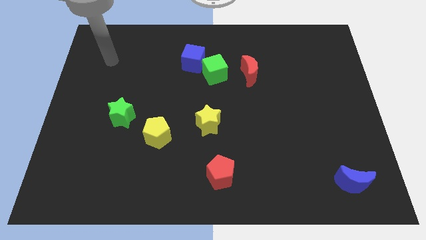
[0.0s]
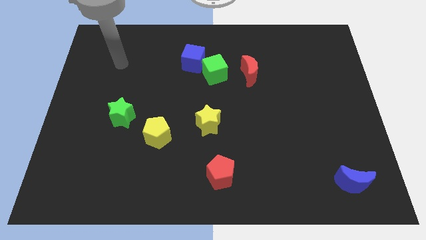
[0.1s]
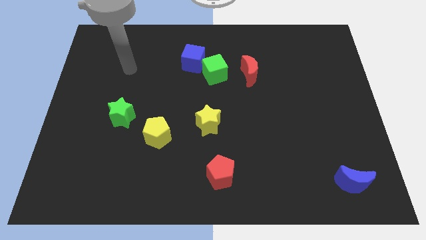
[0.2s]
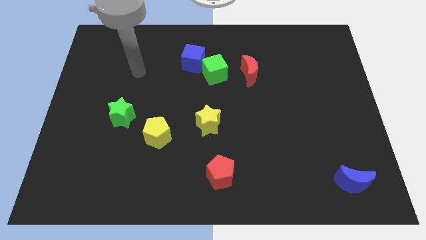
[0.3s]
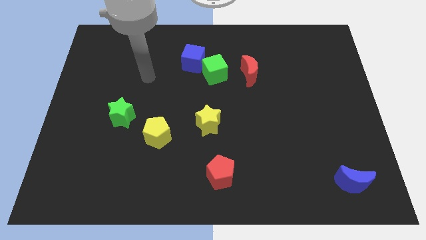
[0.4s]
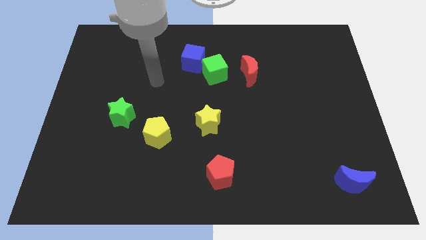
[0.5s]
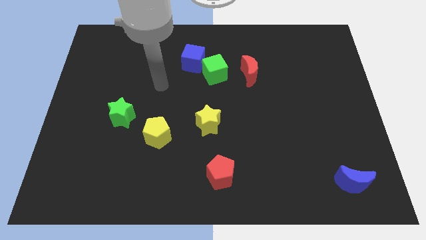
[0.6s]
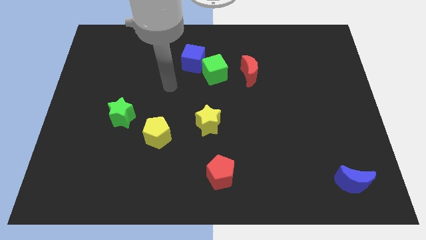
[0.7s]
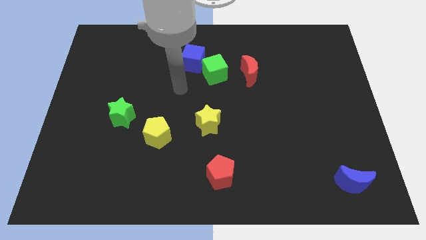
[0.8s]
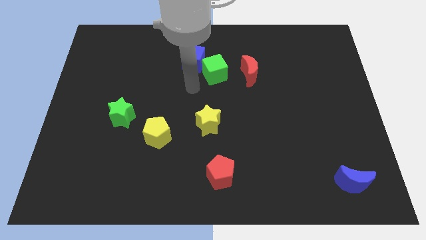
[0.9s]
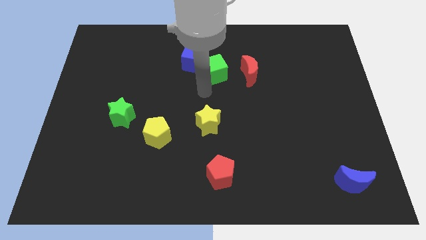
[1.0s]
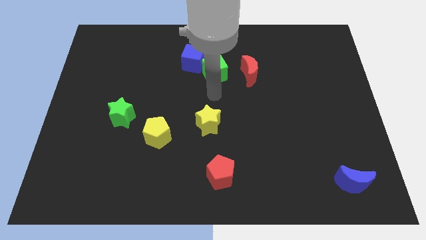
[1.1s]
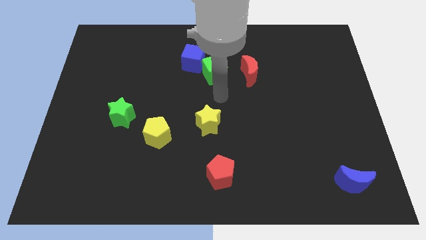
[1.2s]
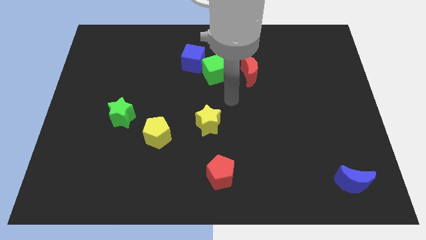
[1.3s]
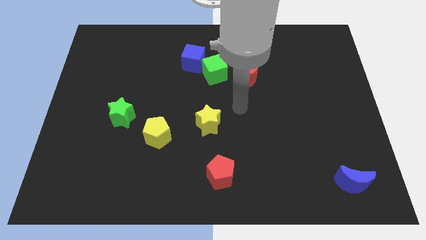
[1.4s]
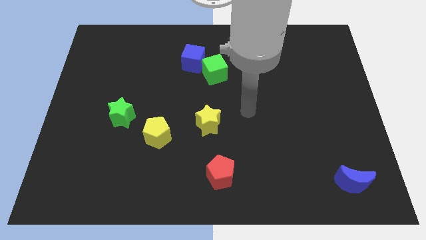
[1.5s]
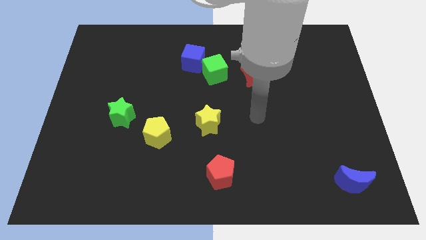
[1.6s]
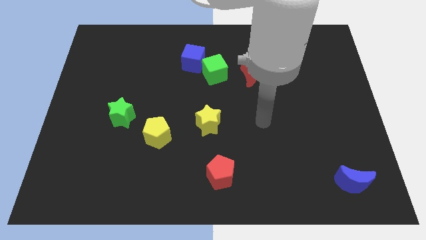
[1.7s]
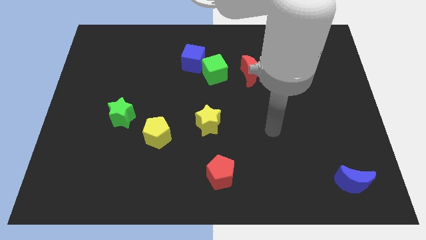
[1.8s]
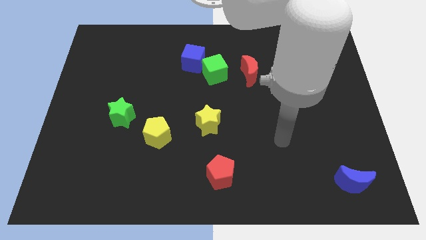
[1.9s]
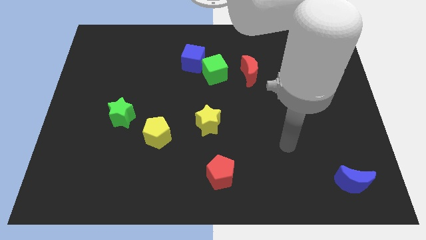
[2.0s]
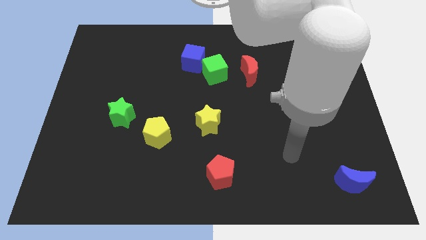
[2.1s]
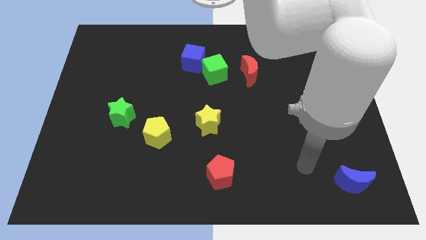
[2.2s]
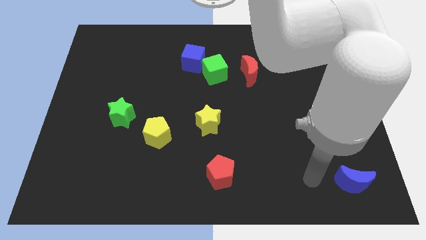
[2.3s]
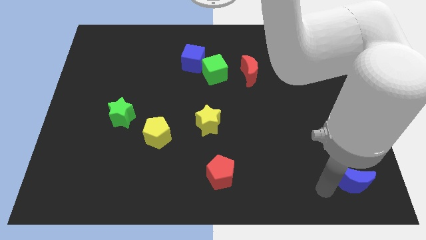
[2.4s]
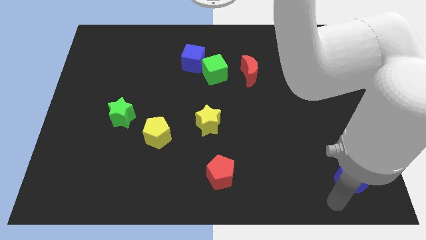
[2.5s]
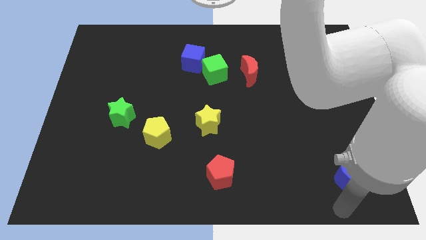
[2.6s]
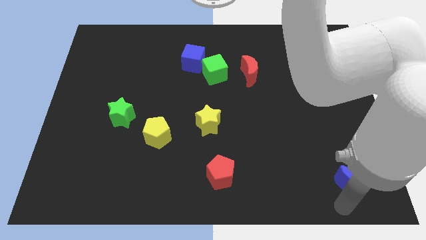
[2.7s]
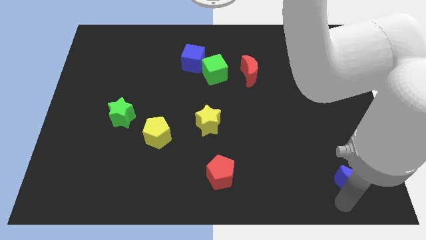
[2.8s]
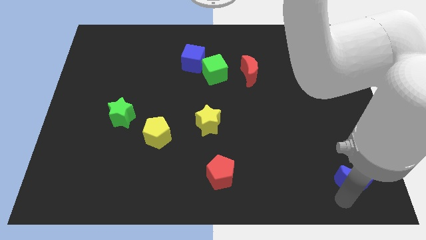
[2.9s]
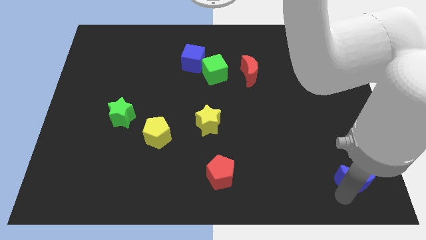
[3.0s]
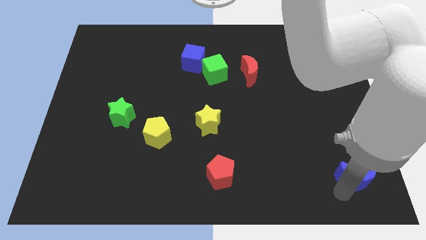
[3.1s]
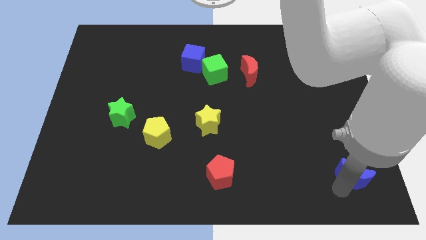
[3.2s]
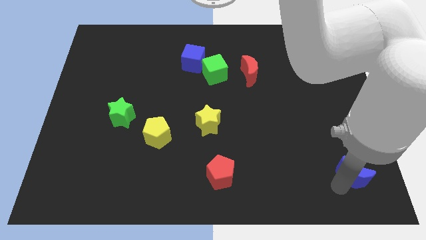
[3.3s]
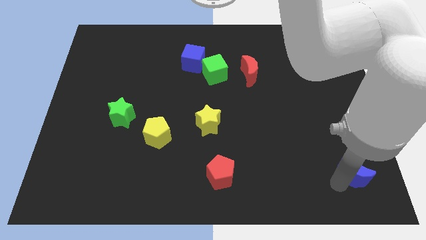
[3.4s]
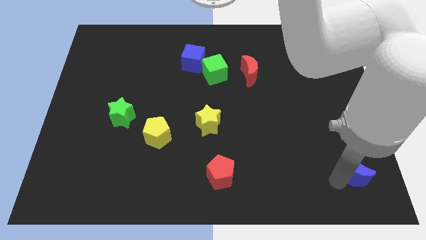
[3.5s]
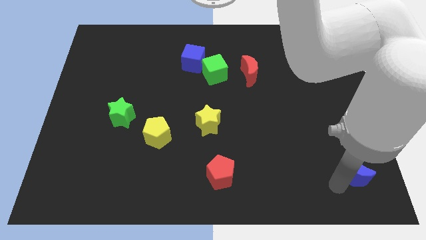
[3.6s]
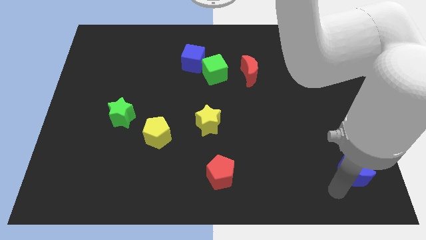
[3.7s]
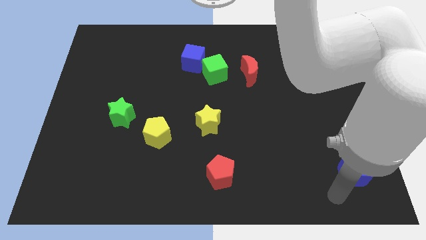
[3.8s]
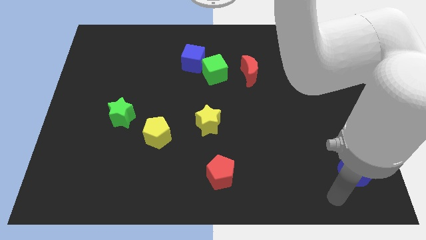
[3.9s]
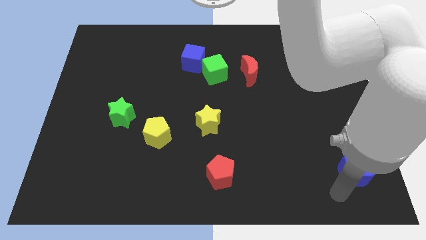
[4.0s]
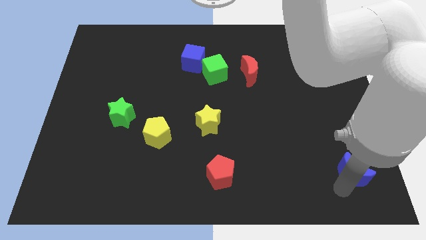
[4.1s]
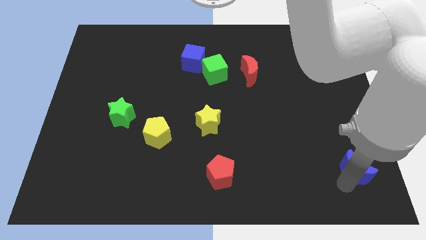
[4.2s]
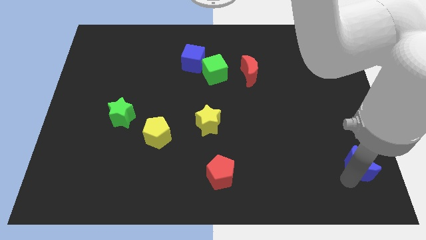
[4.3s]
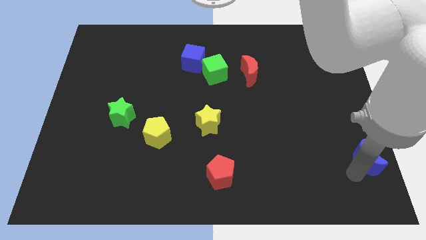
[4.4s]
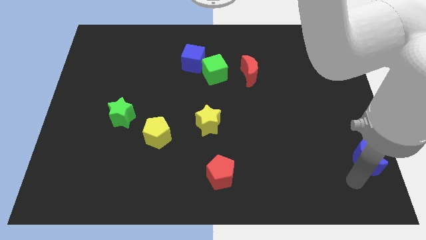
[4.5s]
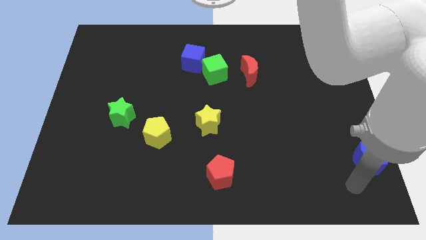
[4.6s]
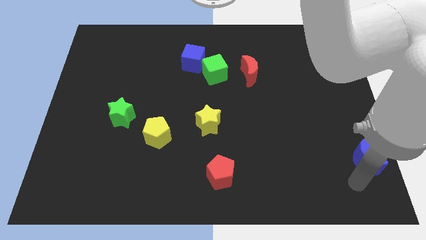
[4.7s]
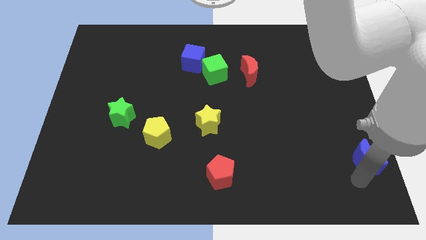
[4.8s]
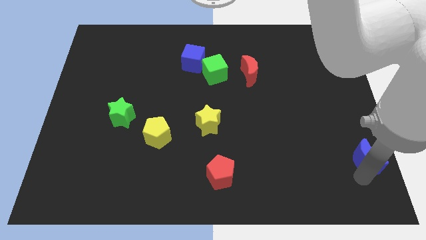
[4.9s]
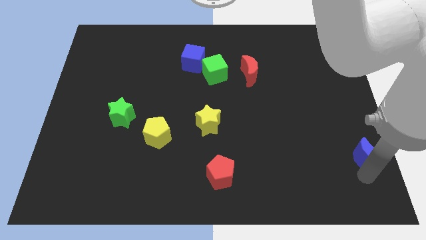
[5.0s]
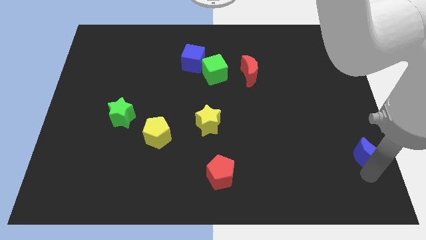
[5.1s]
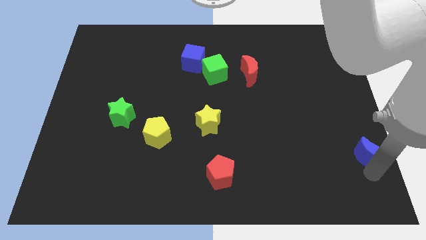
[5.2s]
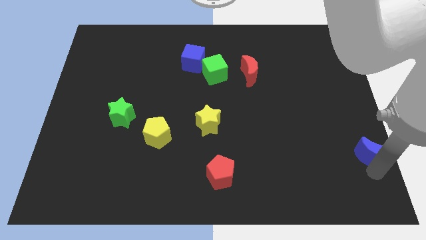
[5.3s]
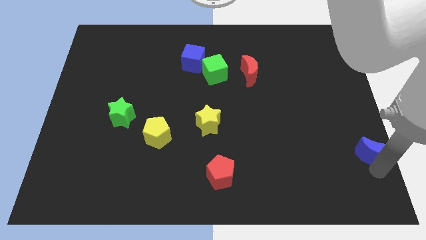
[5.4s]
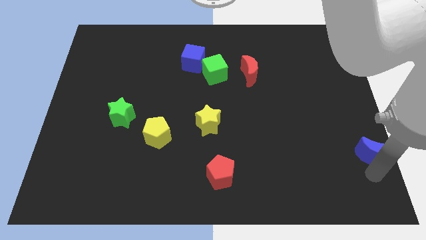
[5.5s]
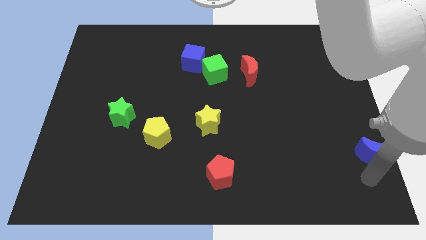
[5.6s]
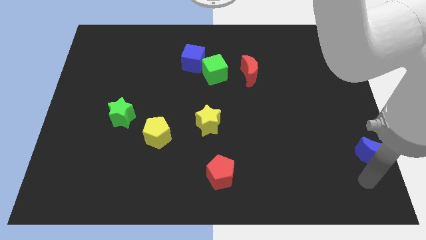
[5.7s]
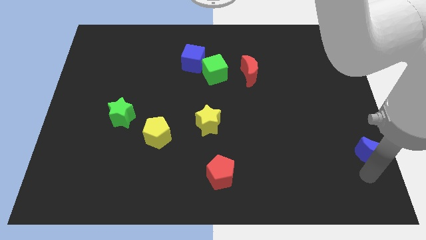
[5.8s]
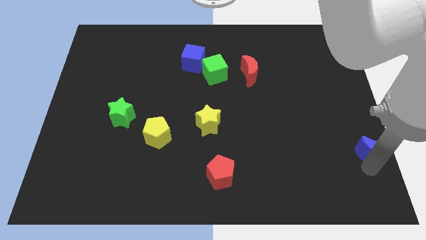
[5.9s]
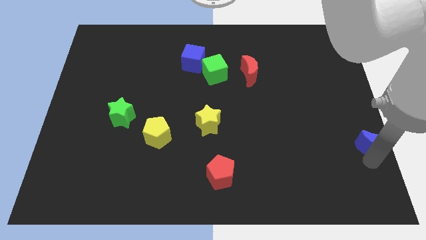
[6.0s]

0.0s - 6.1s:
move the blue moon to the right side
